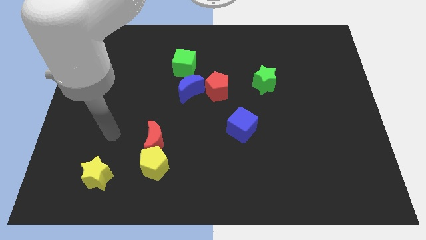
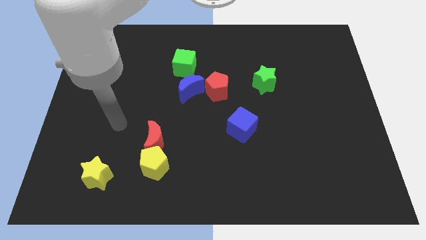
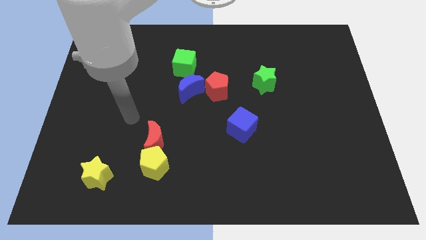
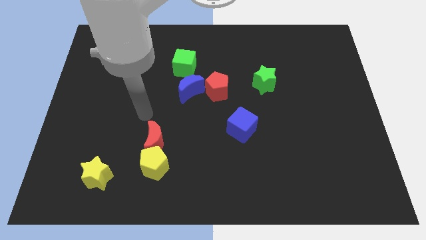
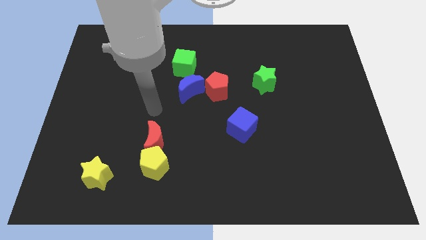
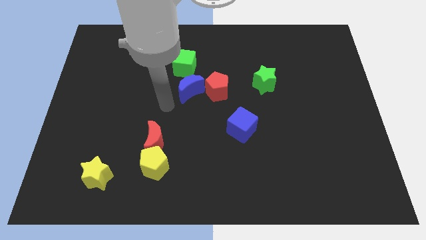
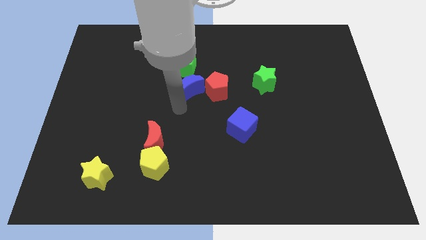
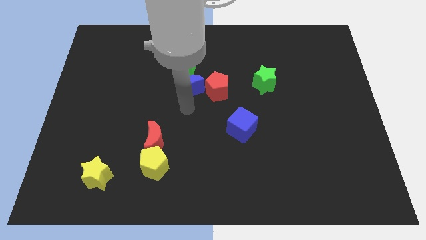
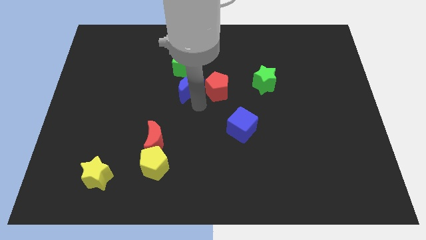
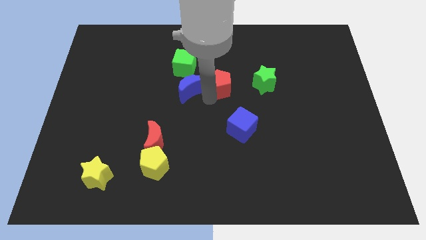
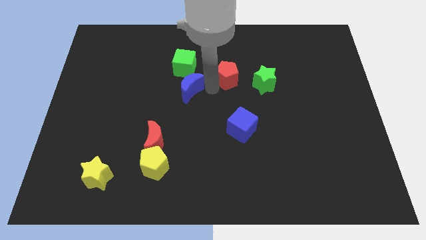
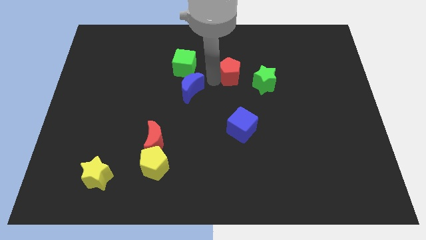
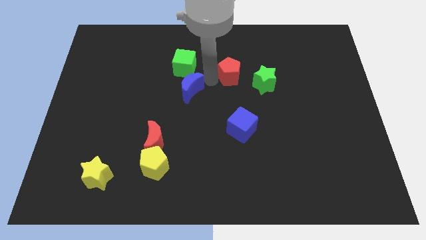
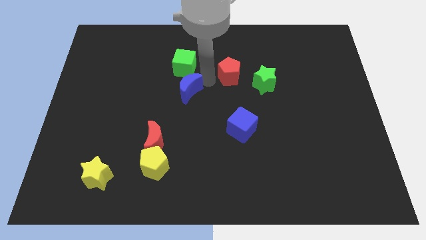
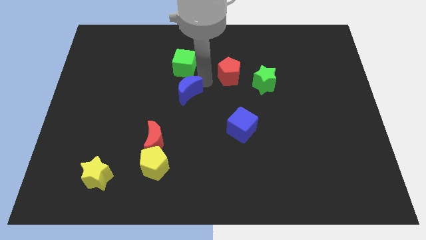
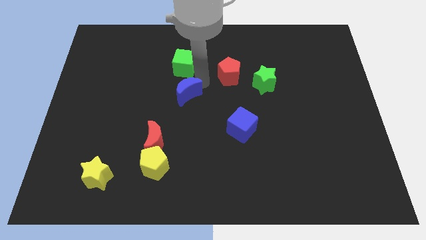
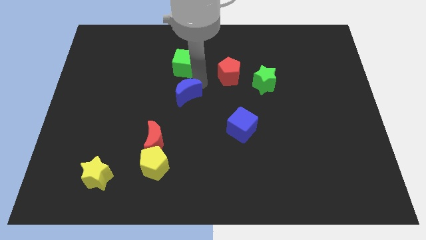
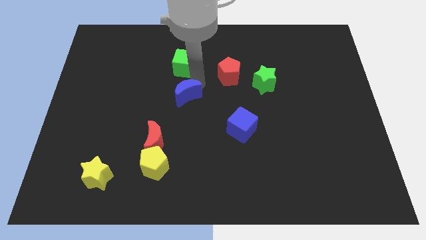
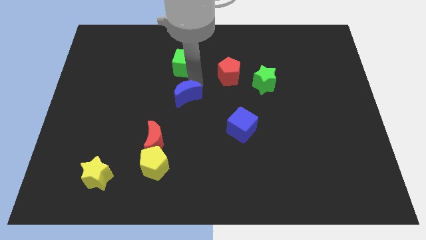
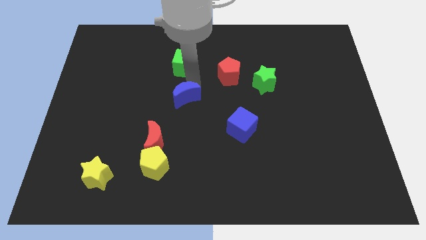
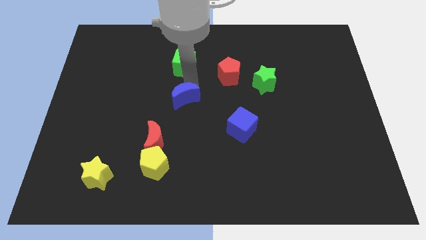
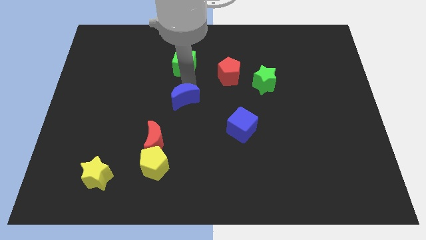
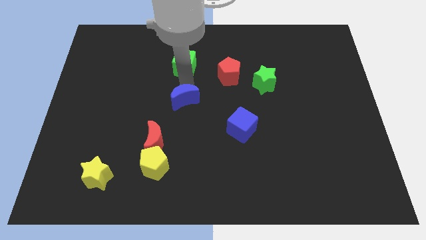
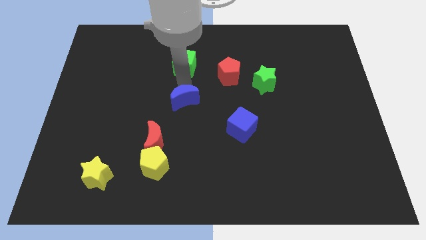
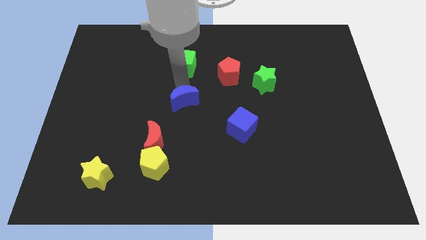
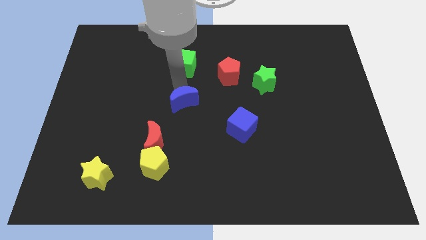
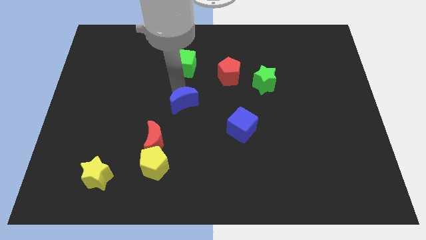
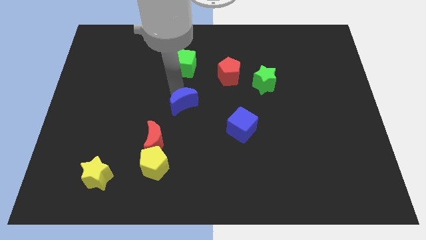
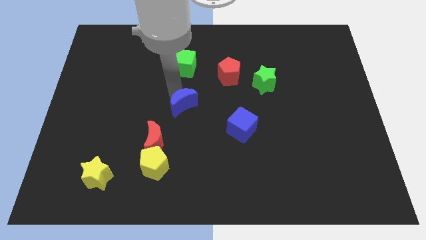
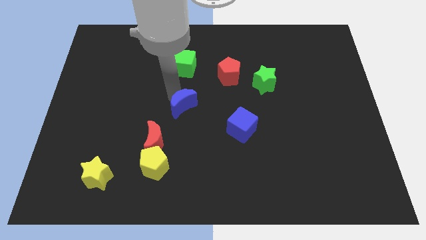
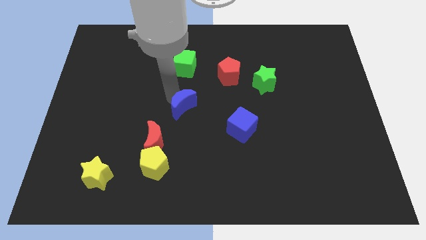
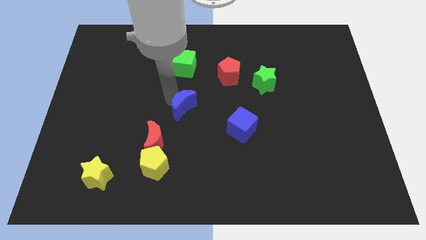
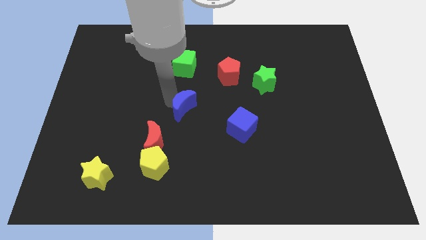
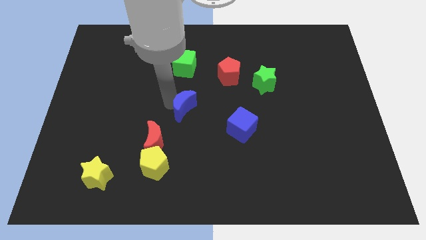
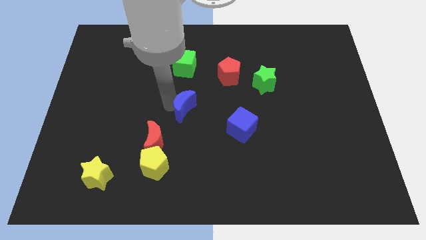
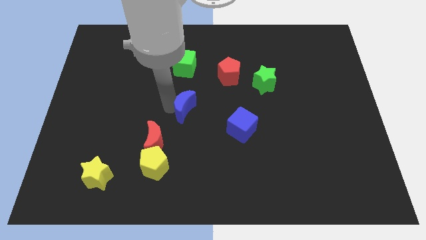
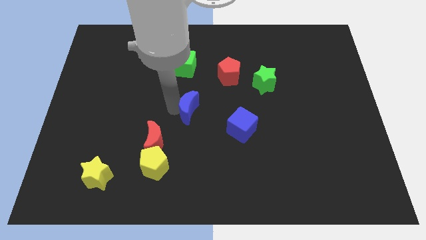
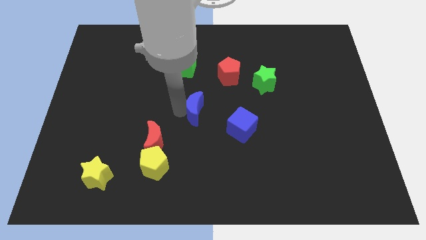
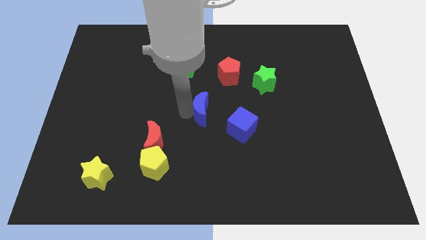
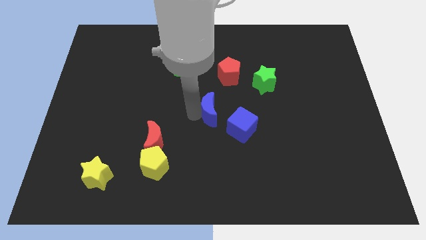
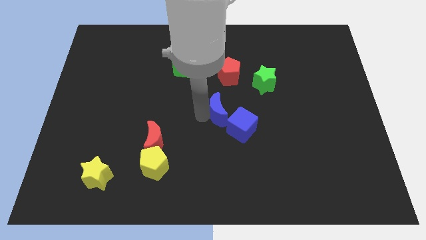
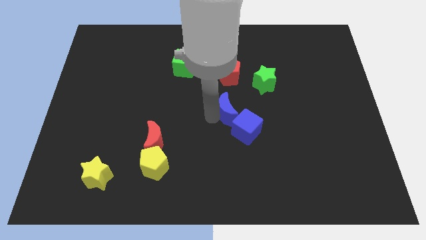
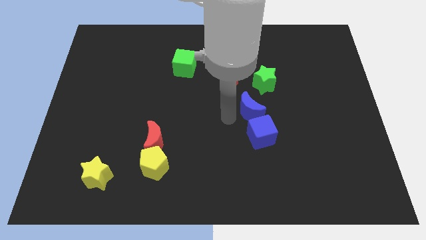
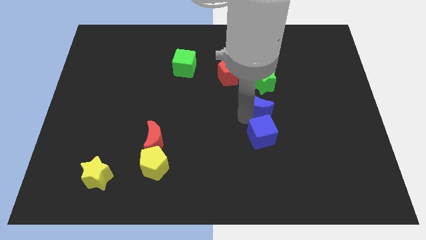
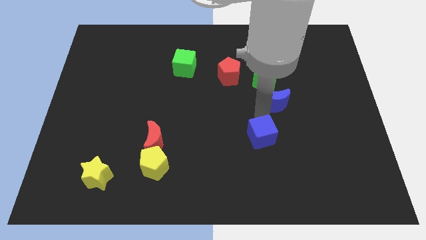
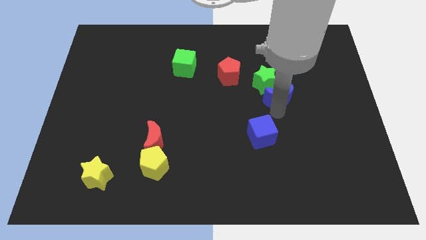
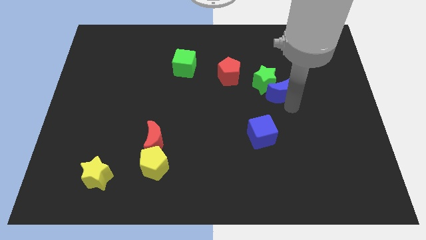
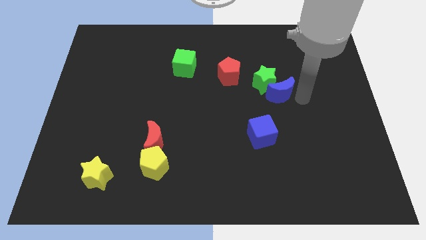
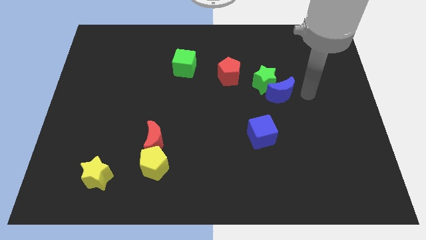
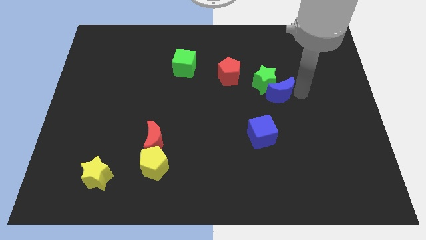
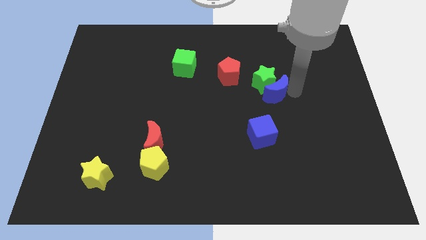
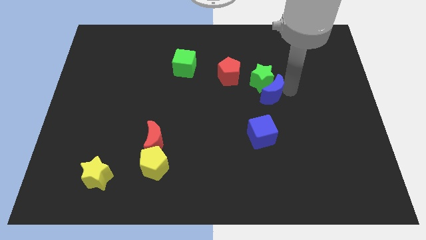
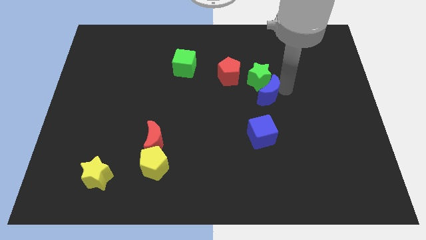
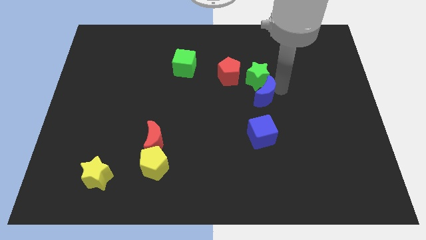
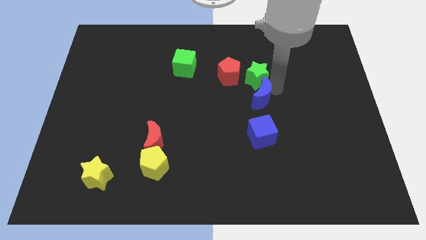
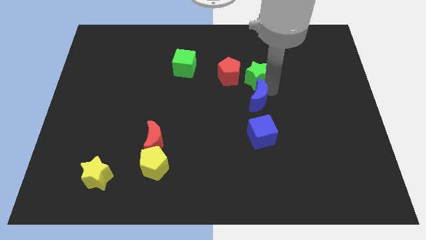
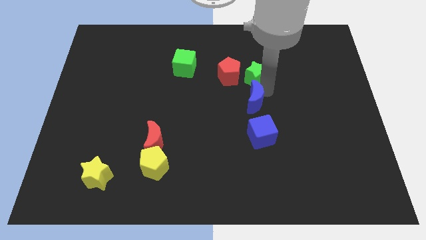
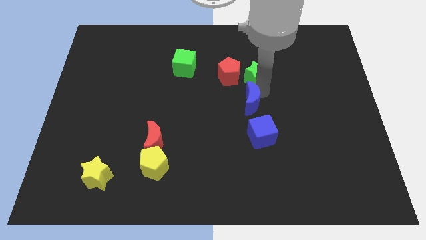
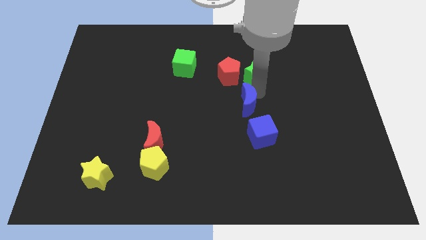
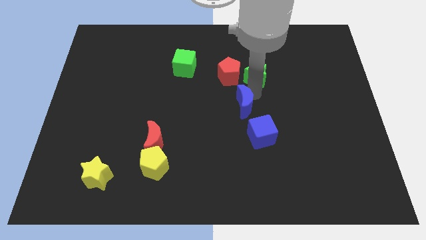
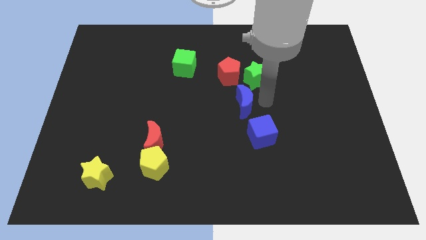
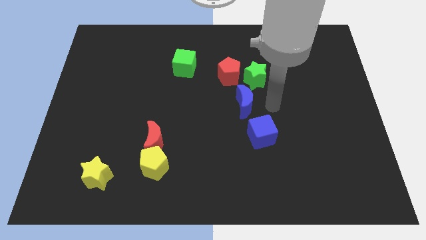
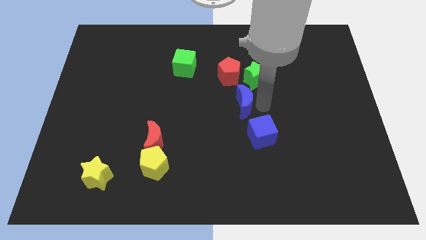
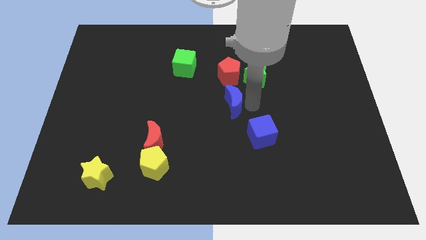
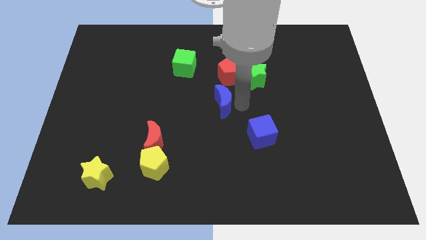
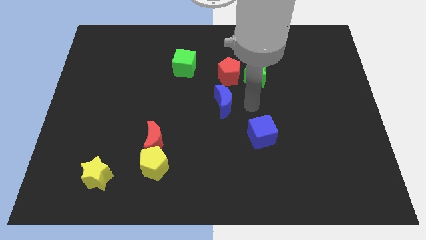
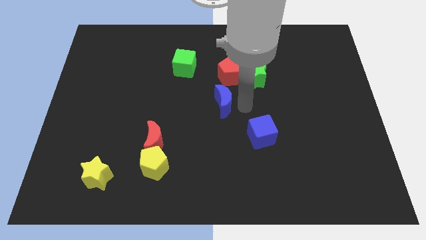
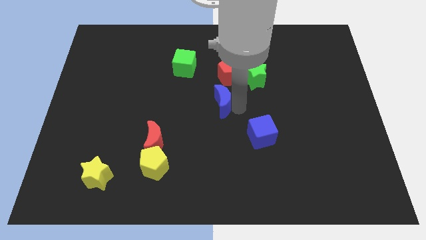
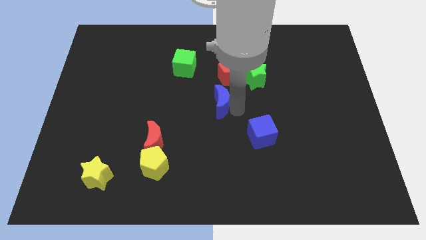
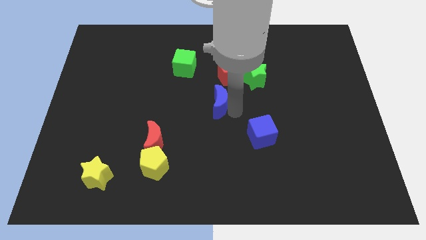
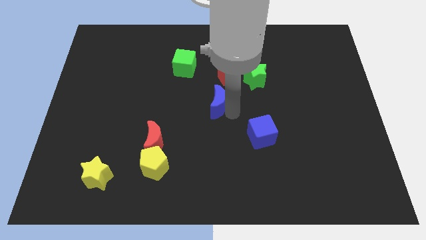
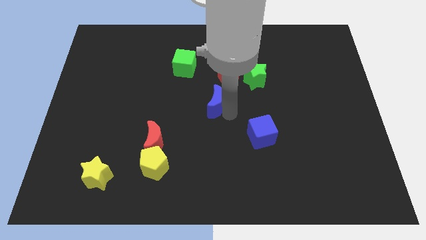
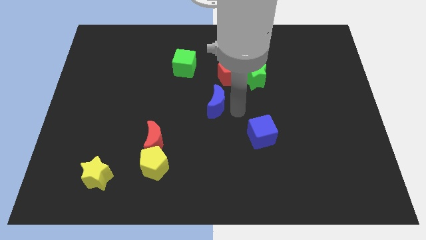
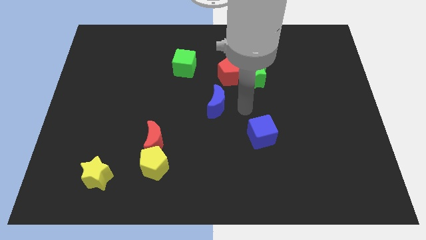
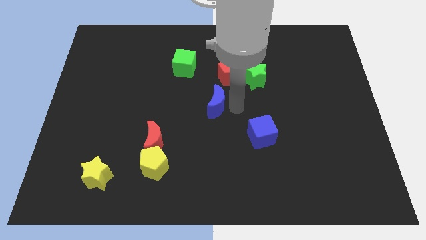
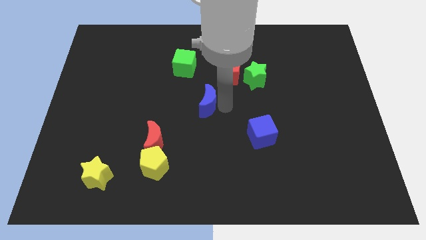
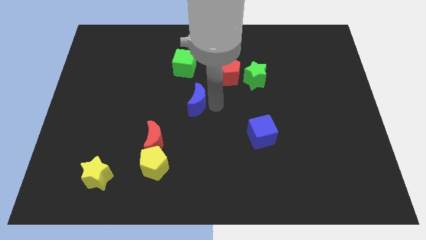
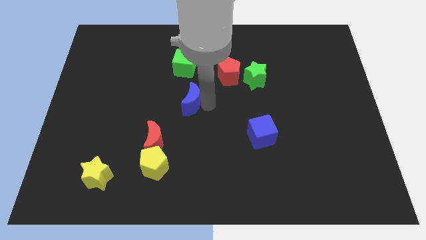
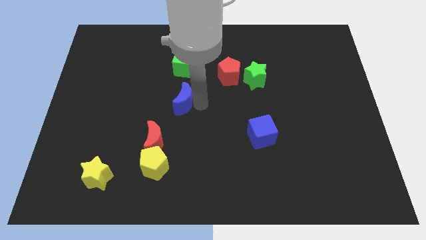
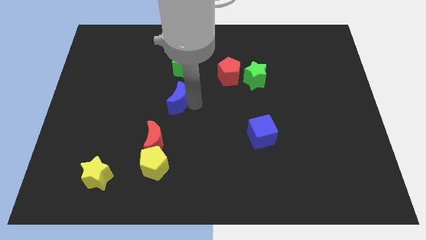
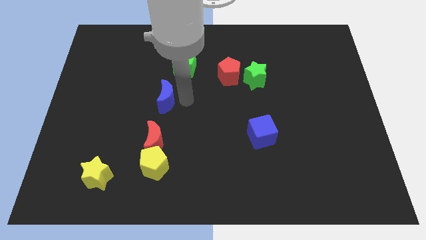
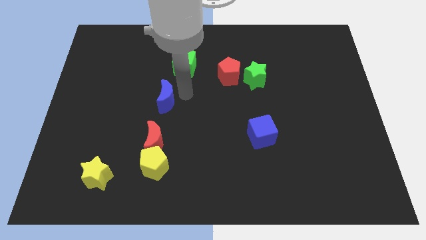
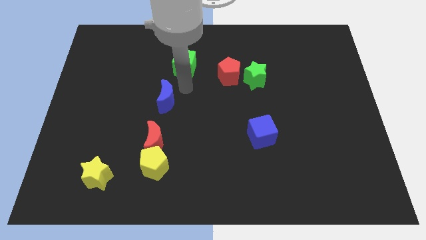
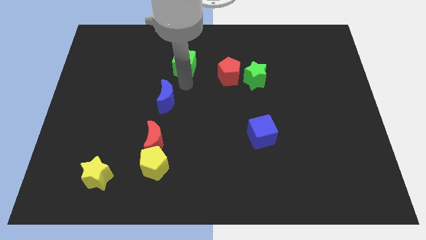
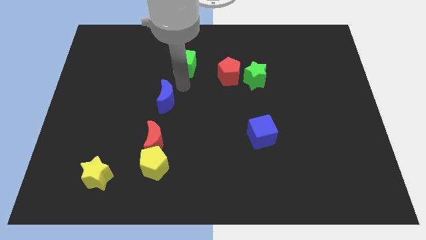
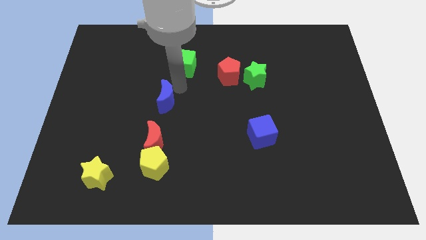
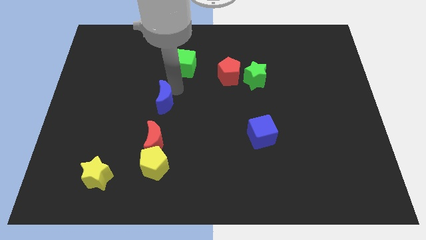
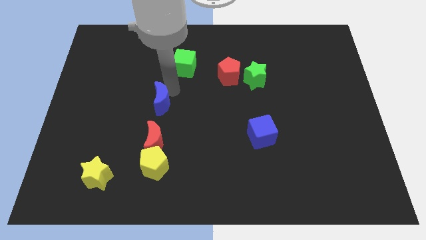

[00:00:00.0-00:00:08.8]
push the blue moon downwards and to the left a little bit
